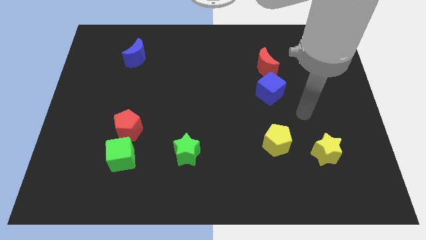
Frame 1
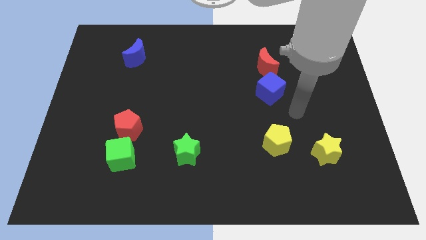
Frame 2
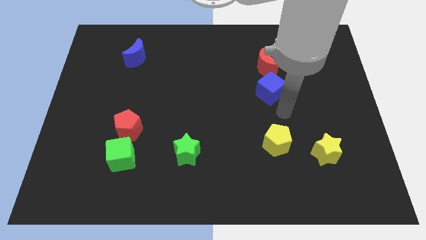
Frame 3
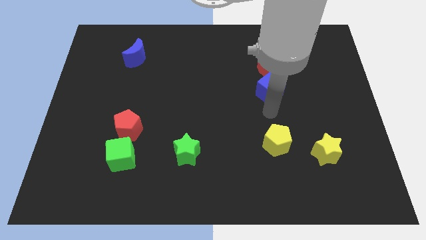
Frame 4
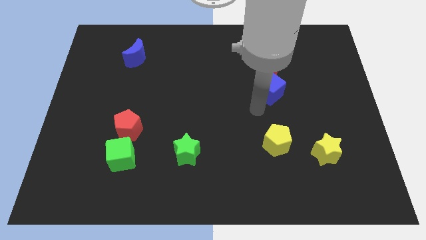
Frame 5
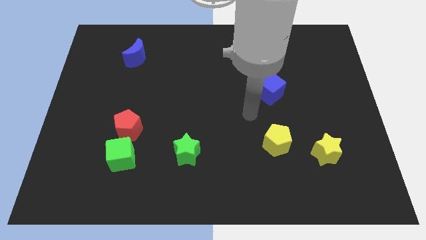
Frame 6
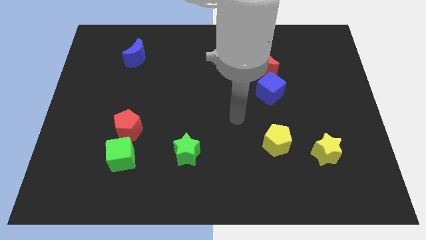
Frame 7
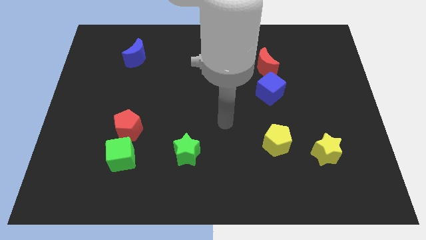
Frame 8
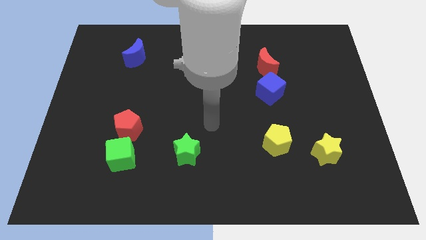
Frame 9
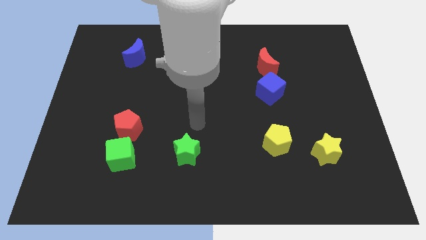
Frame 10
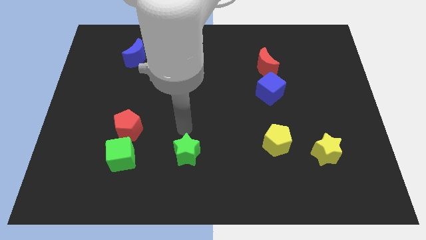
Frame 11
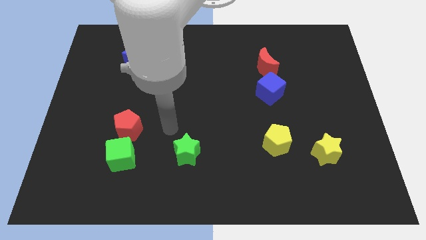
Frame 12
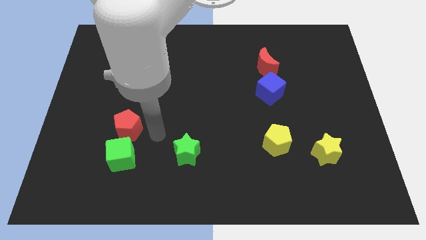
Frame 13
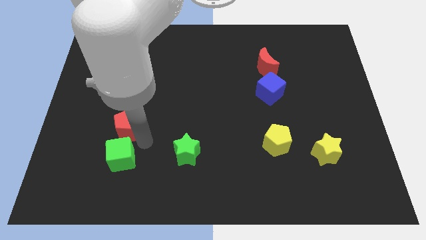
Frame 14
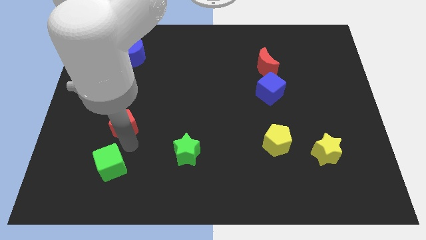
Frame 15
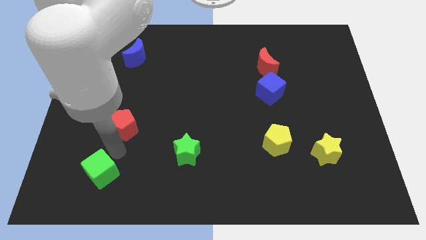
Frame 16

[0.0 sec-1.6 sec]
separate the red pentagon from the green cube

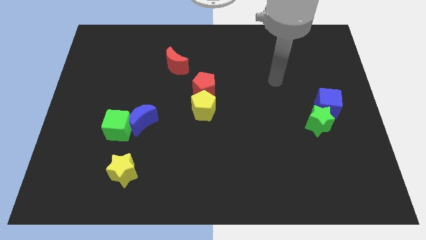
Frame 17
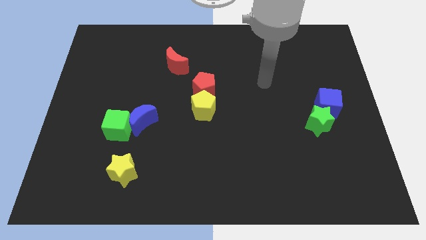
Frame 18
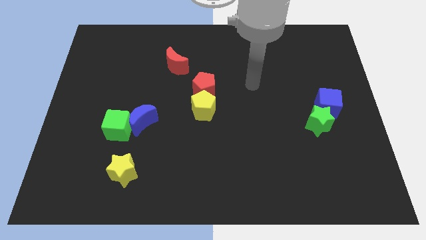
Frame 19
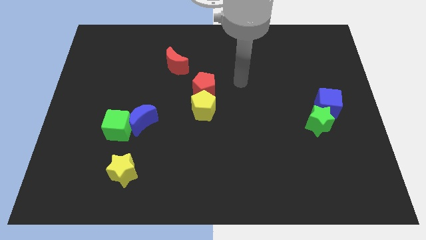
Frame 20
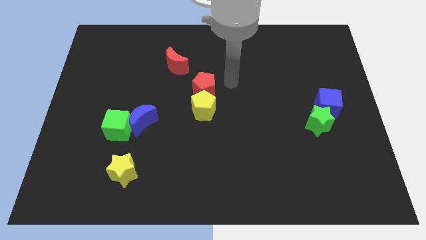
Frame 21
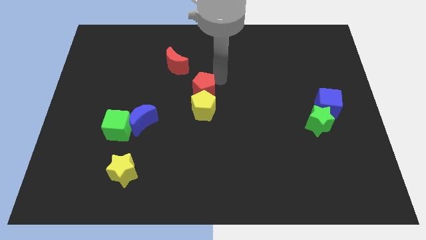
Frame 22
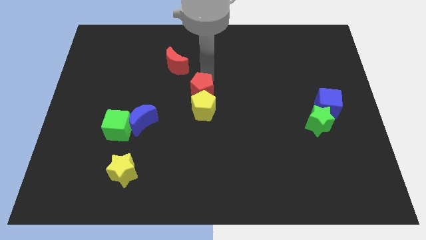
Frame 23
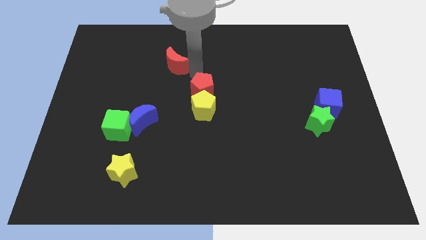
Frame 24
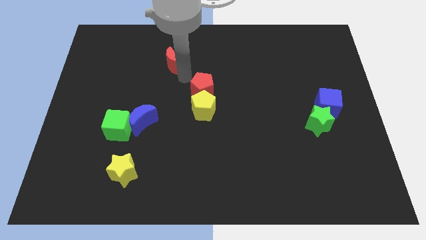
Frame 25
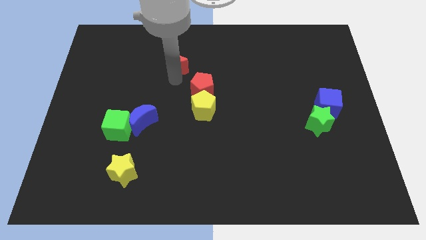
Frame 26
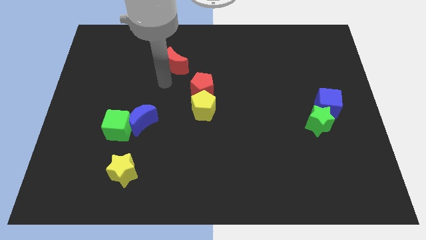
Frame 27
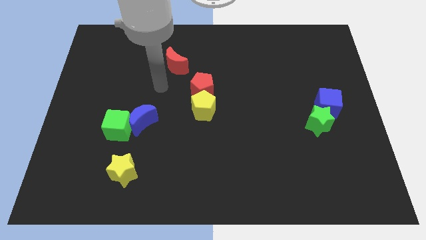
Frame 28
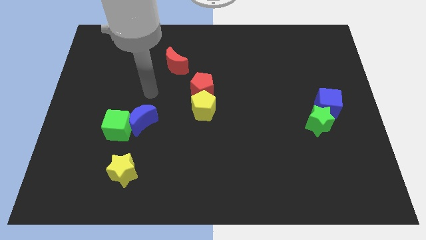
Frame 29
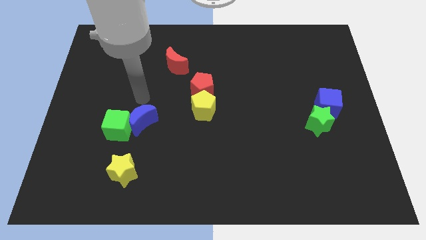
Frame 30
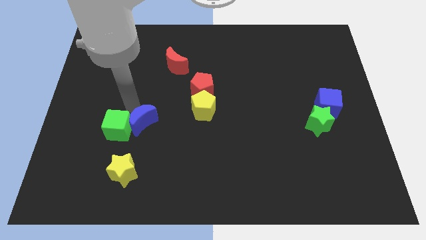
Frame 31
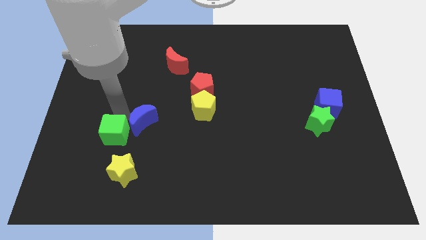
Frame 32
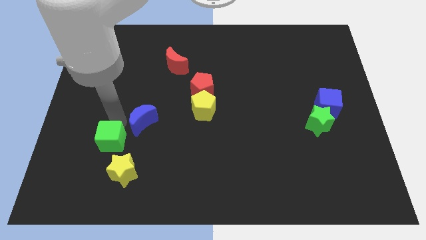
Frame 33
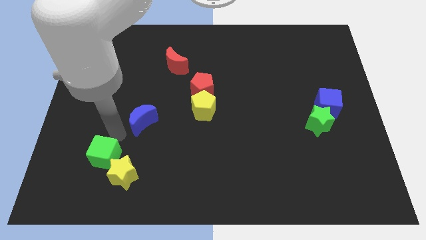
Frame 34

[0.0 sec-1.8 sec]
move the blue moon away from the green cube

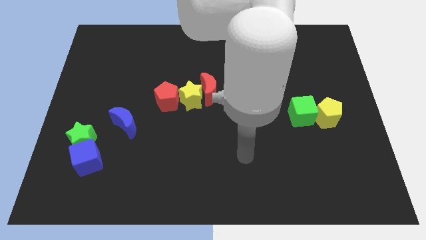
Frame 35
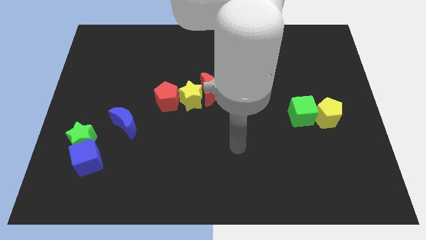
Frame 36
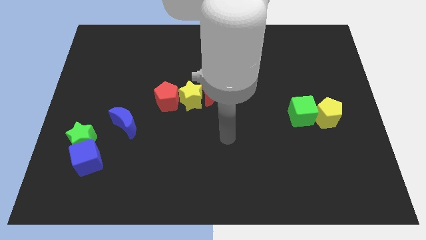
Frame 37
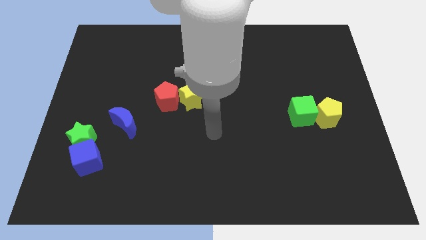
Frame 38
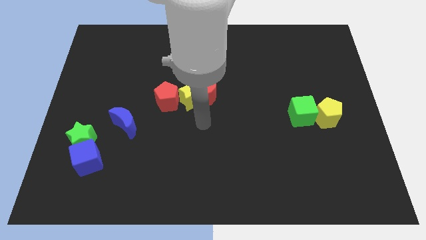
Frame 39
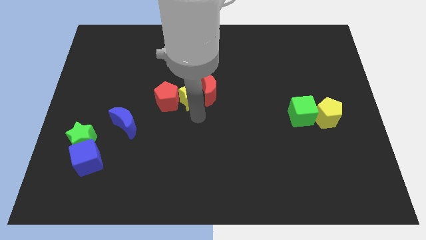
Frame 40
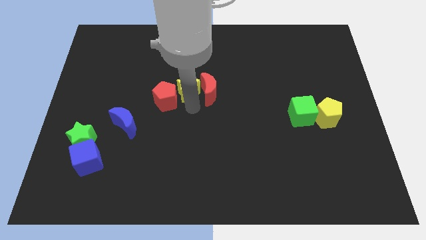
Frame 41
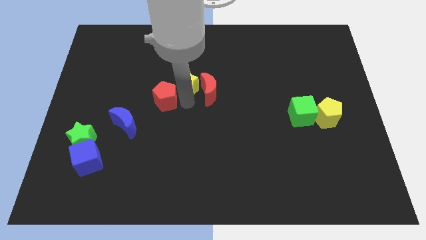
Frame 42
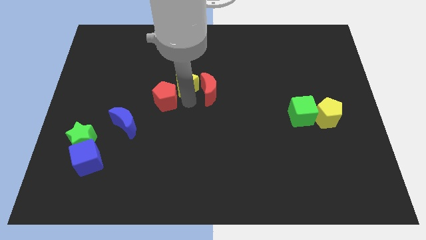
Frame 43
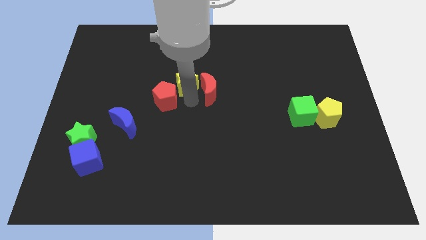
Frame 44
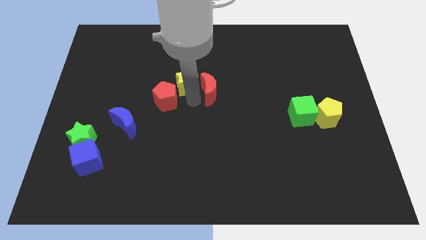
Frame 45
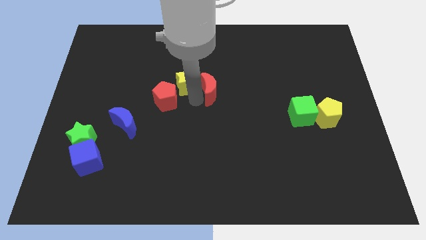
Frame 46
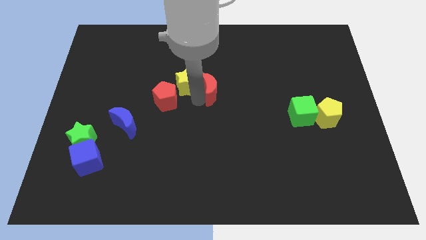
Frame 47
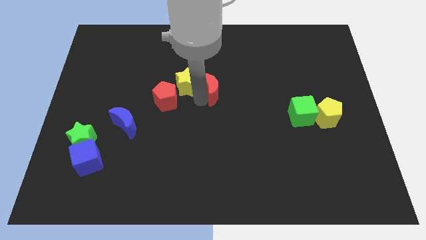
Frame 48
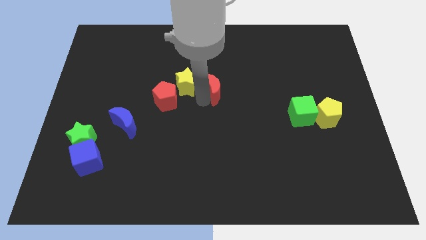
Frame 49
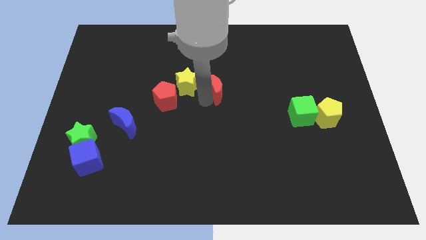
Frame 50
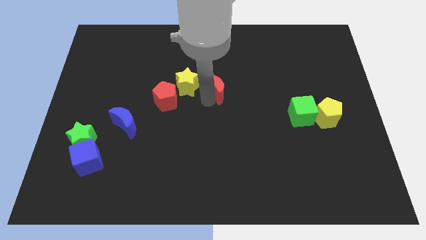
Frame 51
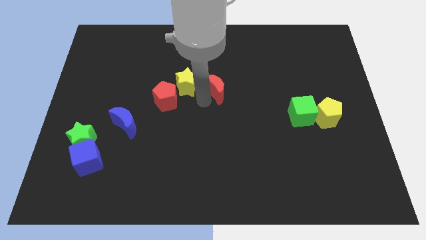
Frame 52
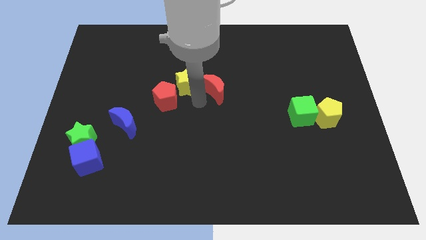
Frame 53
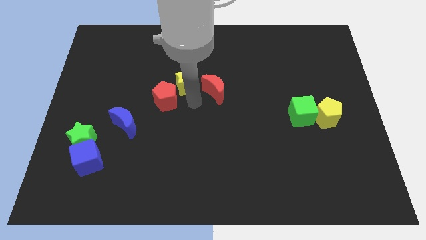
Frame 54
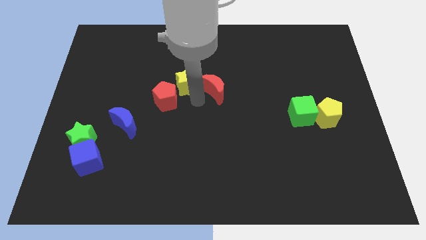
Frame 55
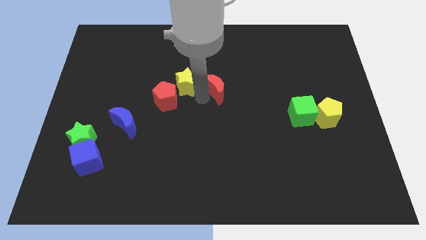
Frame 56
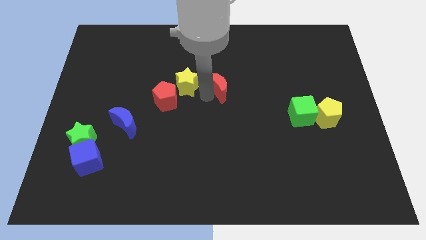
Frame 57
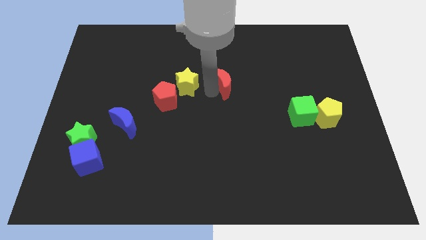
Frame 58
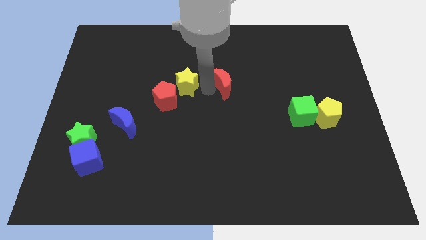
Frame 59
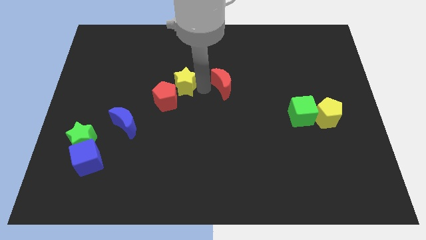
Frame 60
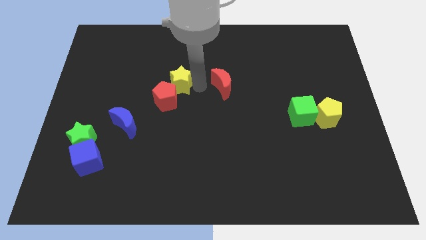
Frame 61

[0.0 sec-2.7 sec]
move the red moon away from the yellow star

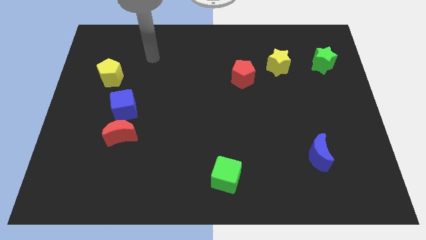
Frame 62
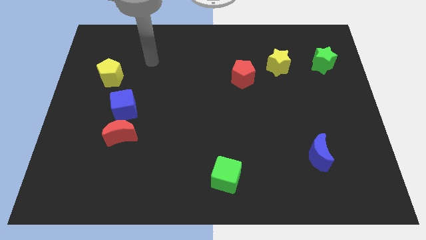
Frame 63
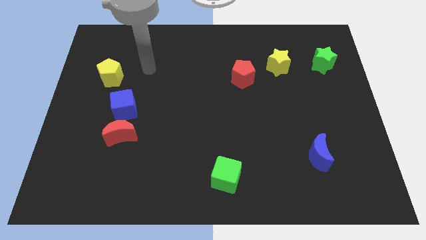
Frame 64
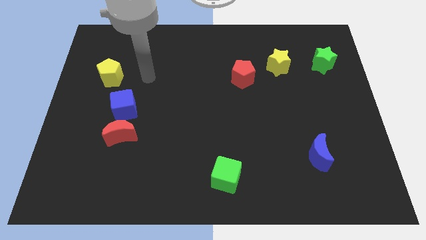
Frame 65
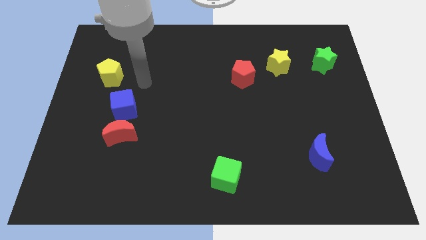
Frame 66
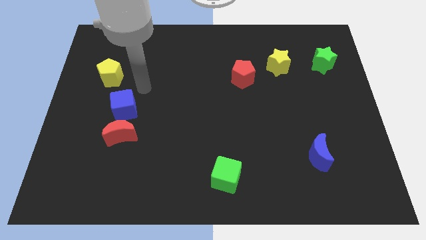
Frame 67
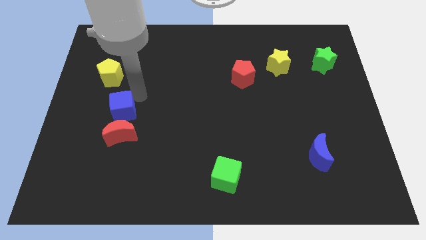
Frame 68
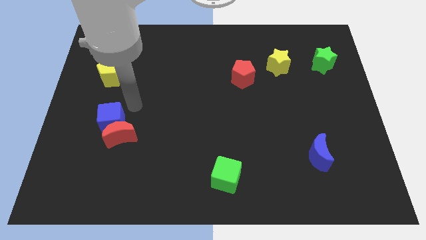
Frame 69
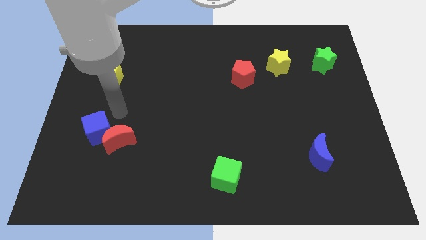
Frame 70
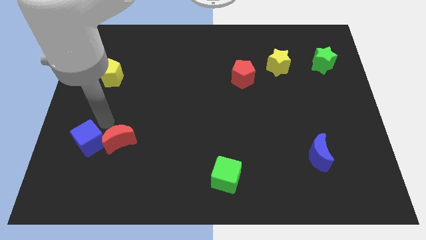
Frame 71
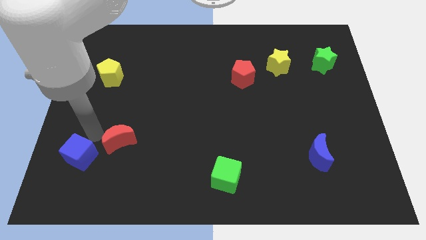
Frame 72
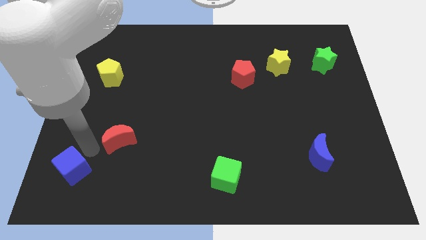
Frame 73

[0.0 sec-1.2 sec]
pull the red moon apart from the blue cube

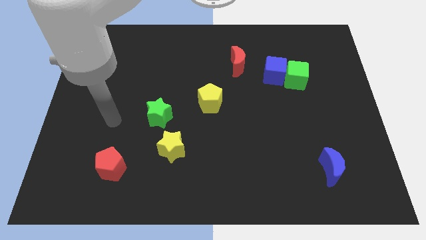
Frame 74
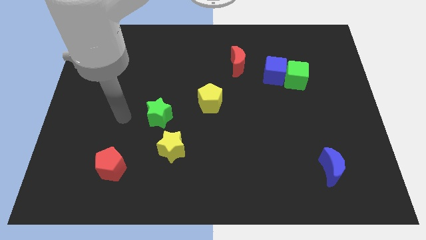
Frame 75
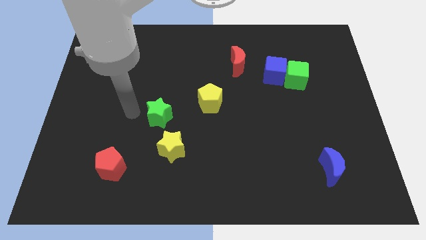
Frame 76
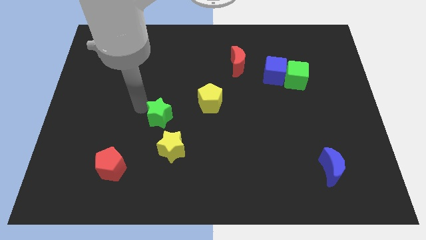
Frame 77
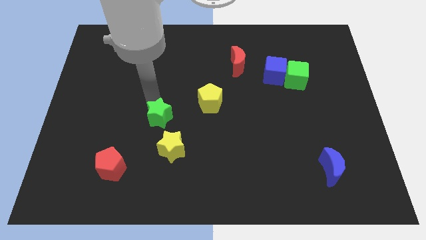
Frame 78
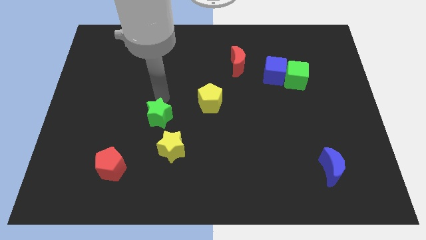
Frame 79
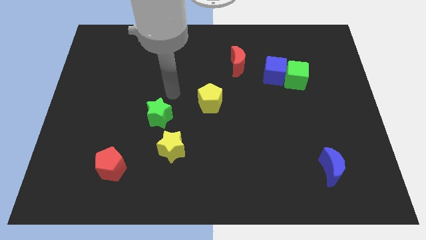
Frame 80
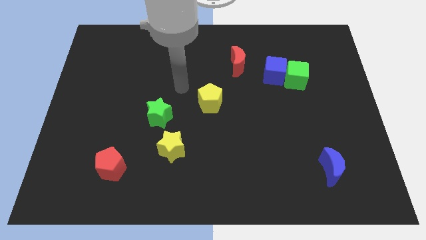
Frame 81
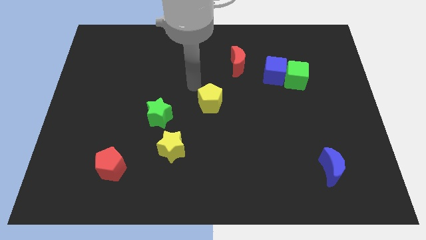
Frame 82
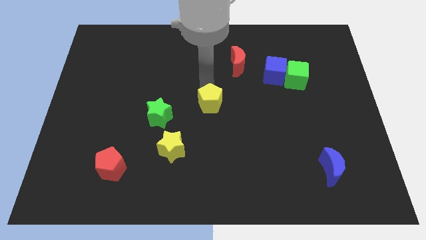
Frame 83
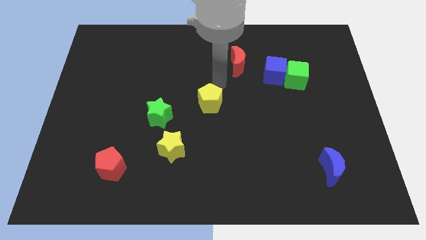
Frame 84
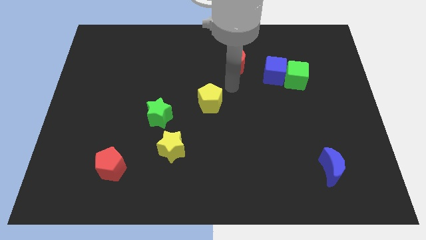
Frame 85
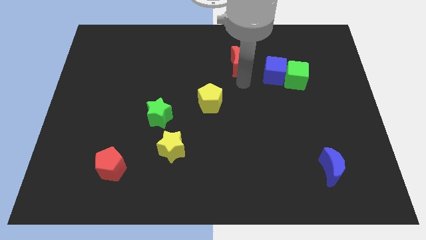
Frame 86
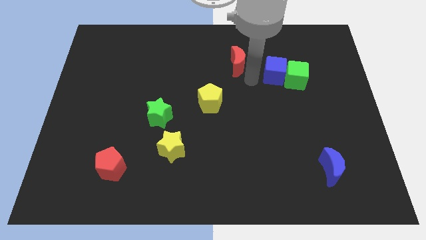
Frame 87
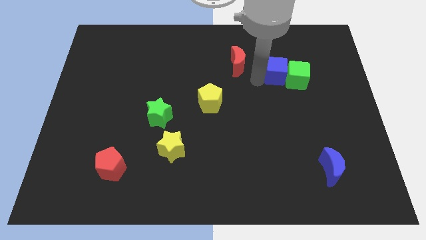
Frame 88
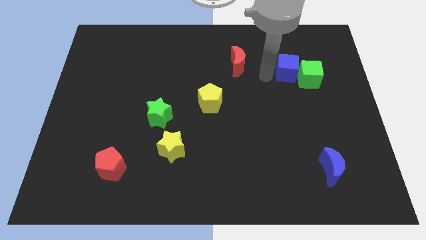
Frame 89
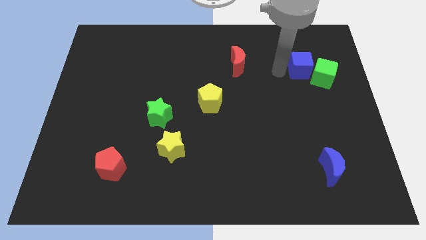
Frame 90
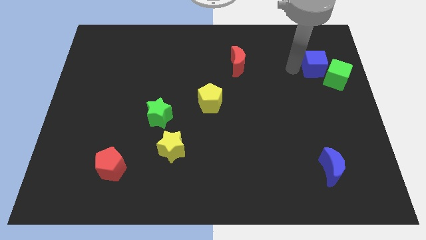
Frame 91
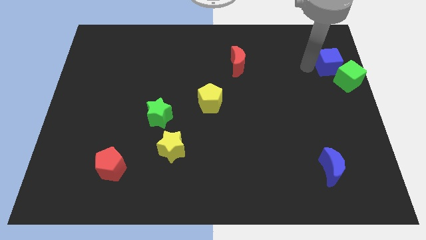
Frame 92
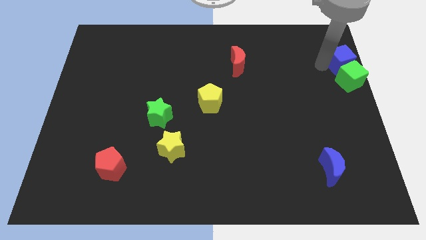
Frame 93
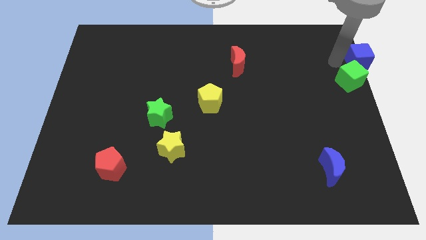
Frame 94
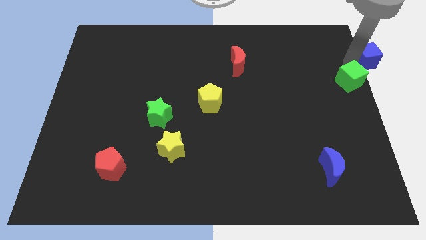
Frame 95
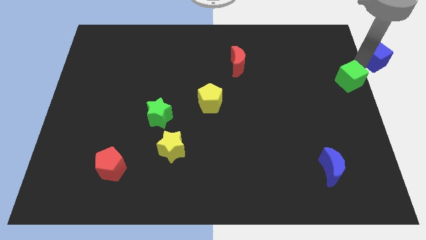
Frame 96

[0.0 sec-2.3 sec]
move the green cube away from the blue cube
